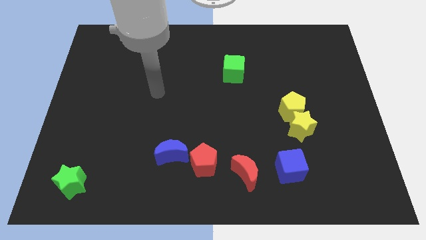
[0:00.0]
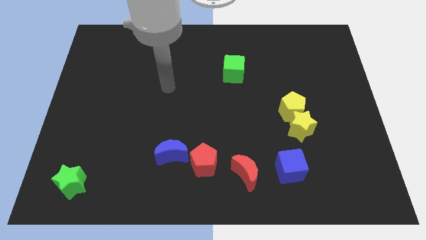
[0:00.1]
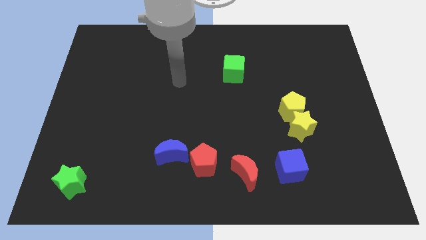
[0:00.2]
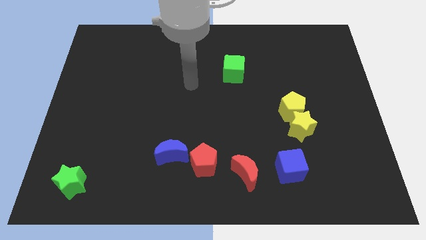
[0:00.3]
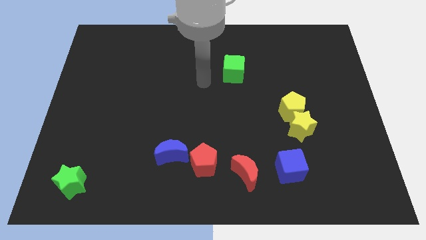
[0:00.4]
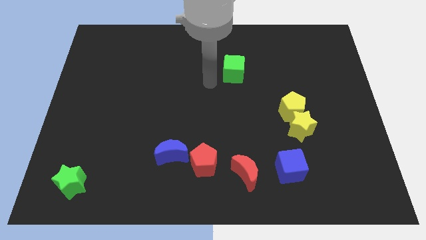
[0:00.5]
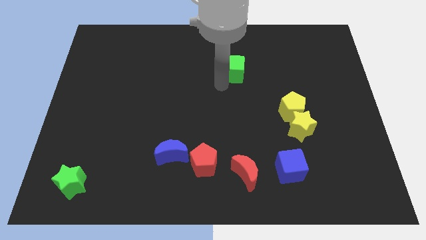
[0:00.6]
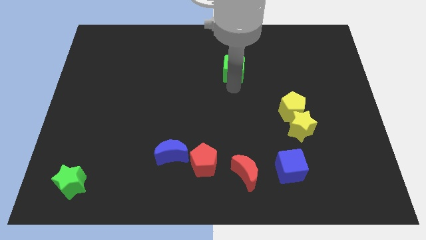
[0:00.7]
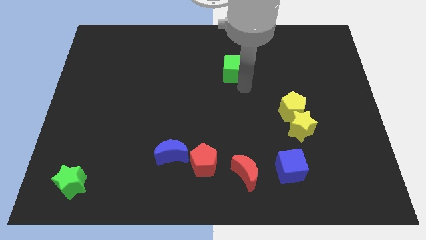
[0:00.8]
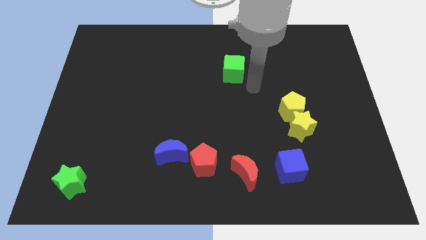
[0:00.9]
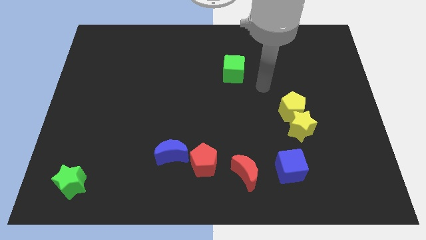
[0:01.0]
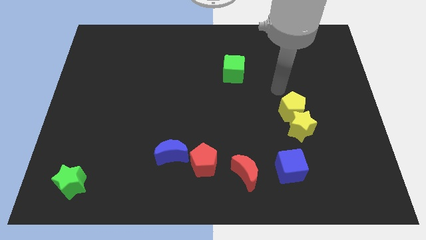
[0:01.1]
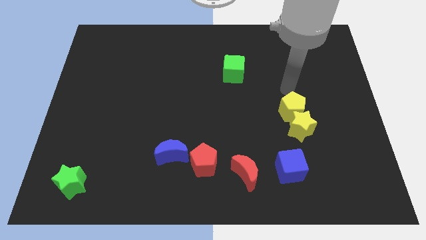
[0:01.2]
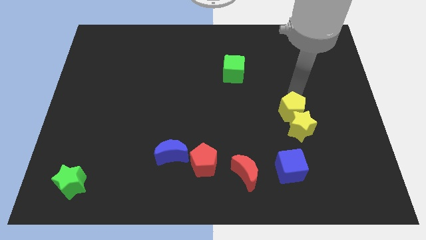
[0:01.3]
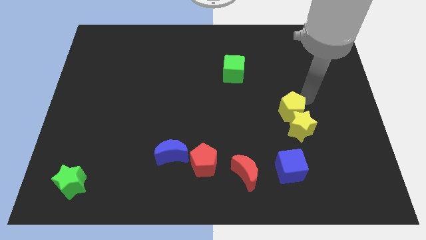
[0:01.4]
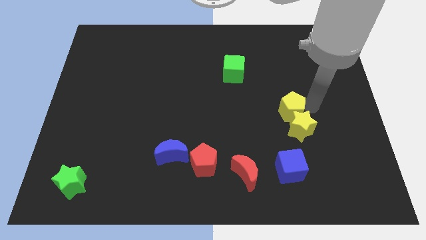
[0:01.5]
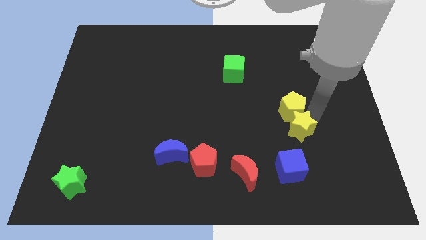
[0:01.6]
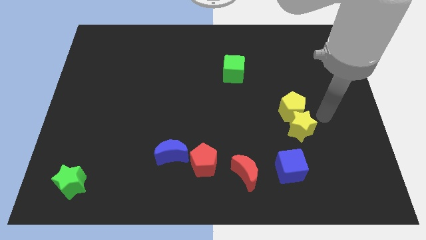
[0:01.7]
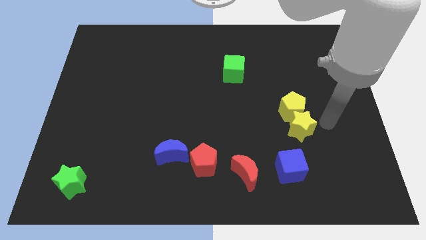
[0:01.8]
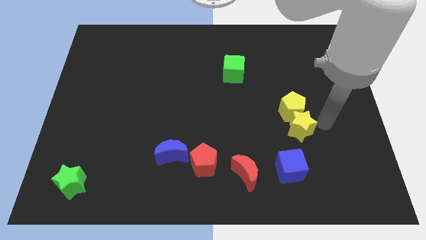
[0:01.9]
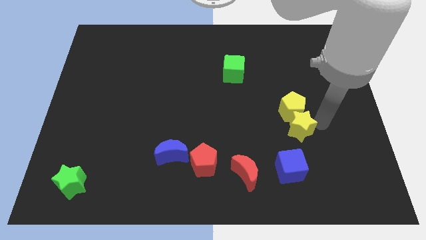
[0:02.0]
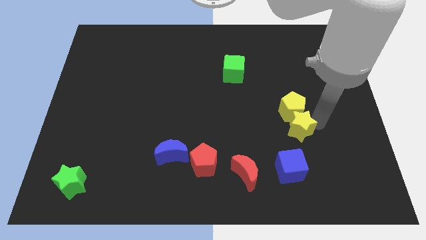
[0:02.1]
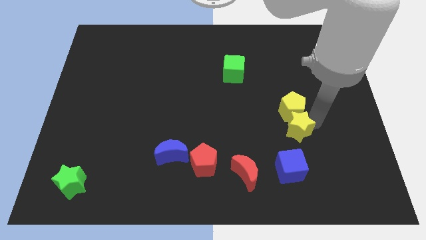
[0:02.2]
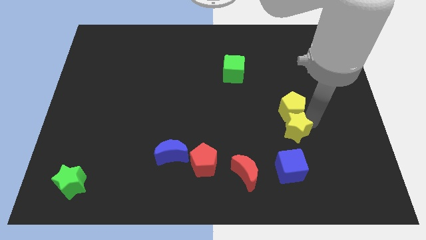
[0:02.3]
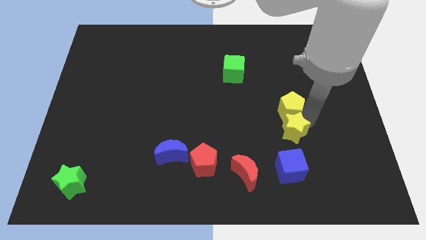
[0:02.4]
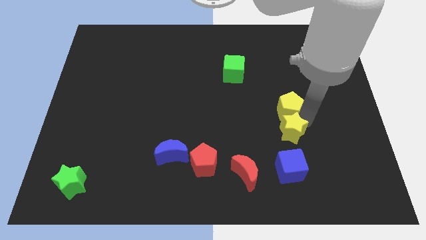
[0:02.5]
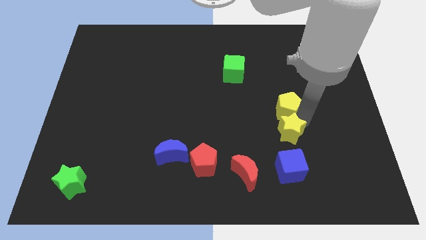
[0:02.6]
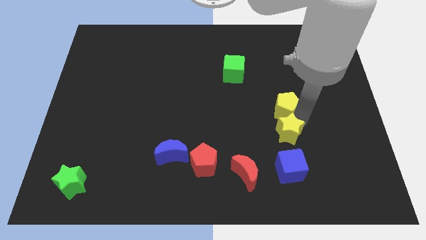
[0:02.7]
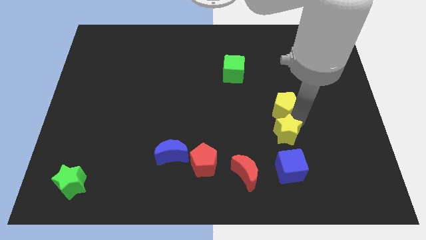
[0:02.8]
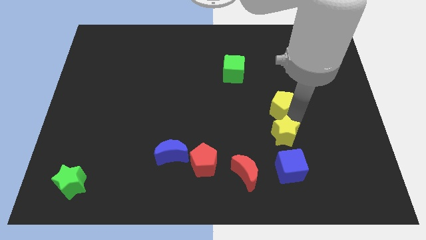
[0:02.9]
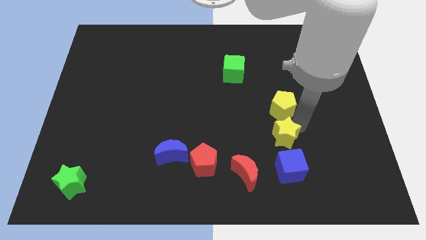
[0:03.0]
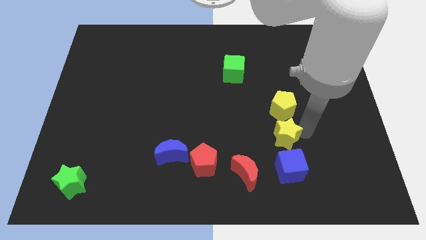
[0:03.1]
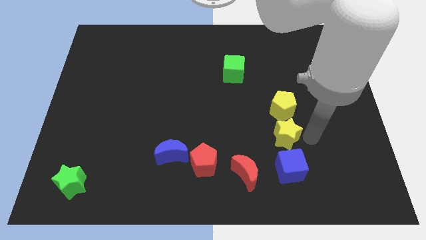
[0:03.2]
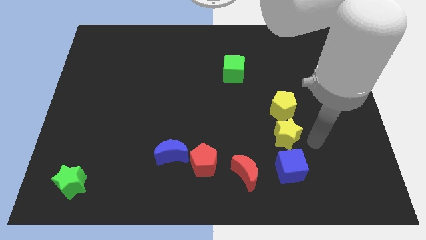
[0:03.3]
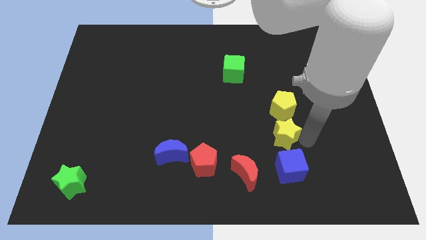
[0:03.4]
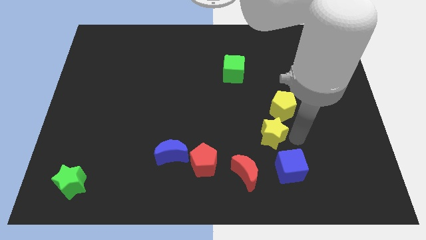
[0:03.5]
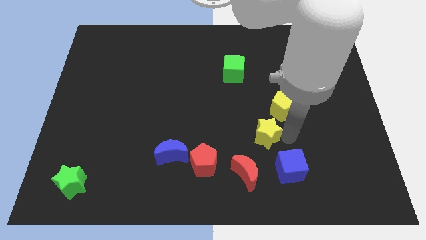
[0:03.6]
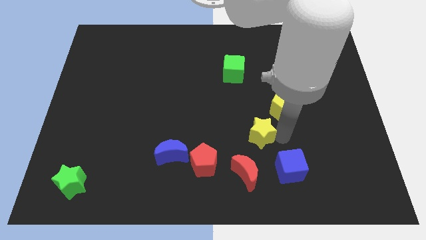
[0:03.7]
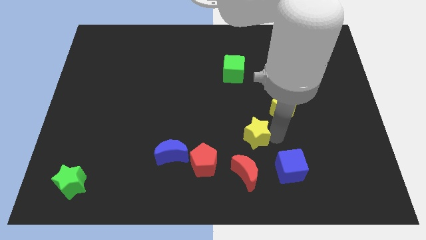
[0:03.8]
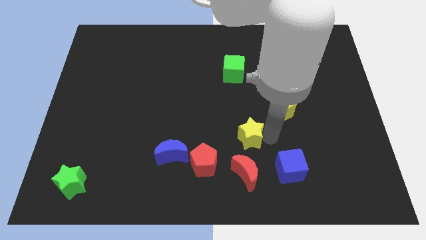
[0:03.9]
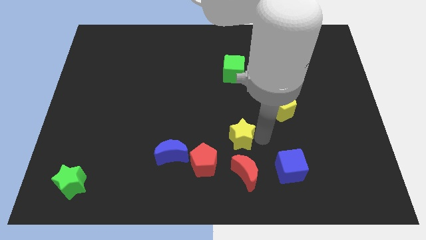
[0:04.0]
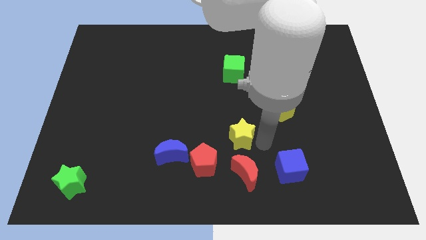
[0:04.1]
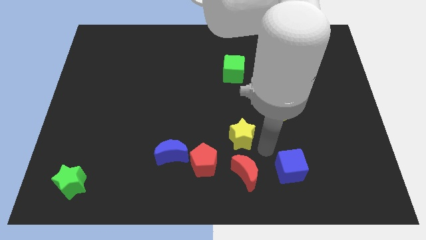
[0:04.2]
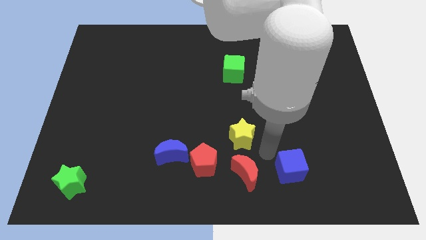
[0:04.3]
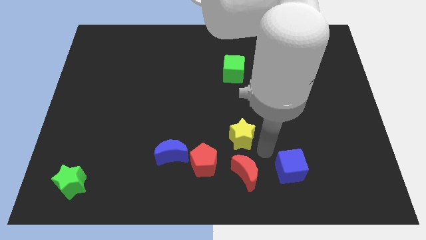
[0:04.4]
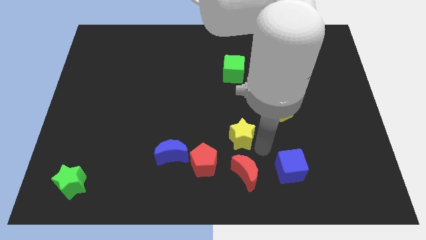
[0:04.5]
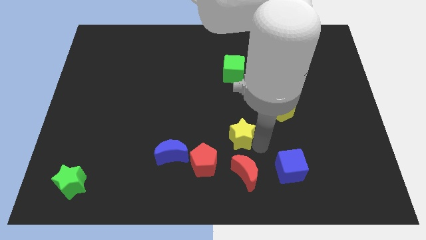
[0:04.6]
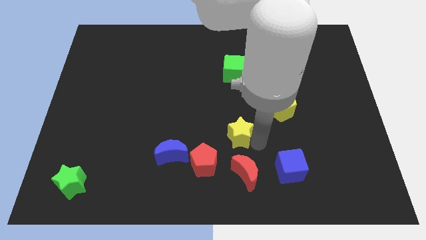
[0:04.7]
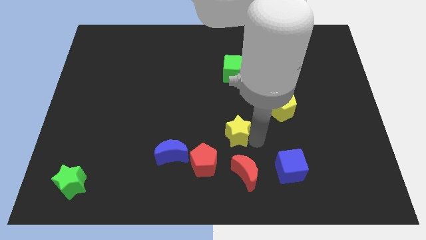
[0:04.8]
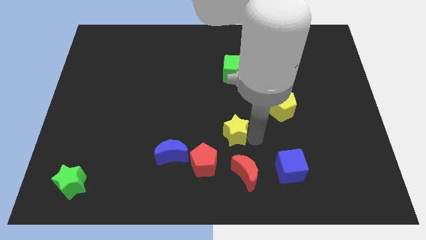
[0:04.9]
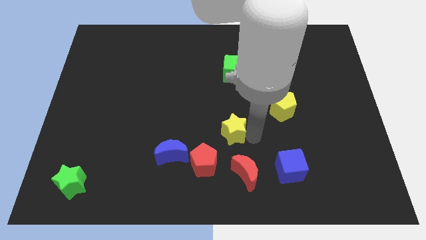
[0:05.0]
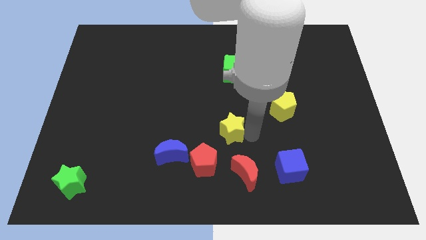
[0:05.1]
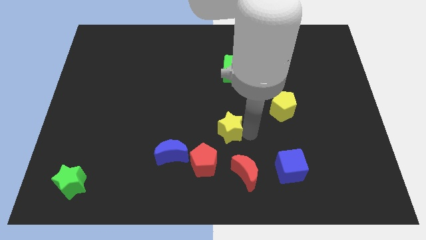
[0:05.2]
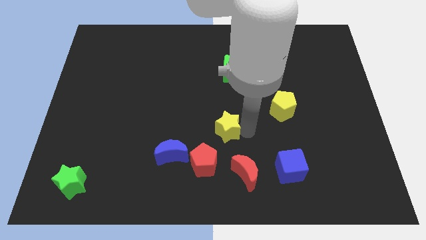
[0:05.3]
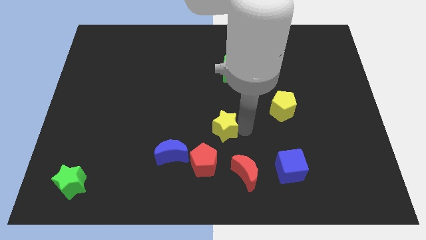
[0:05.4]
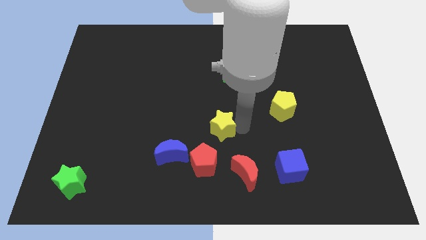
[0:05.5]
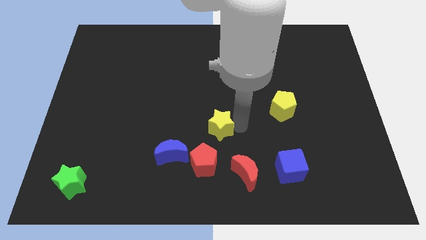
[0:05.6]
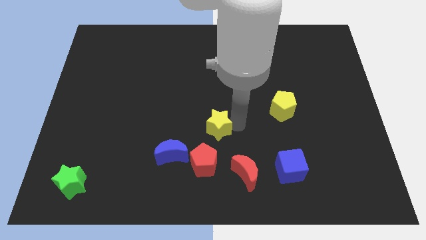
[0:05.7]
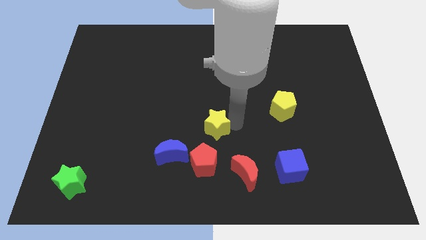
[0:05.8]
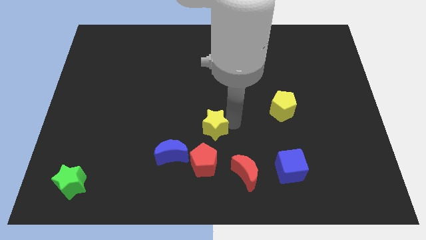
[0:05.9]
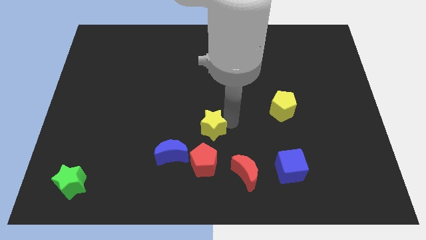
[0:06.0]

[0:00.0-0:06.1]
slide the yellow star to the left

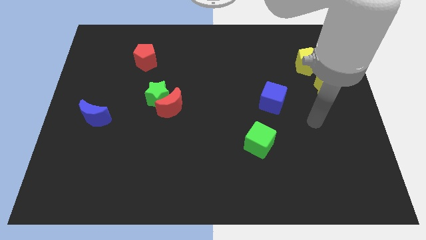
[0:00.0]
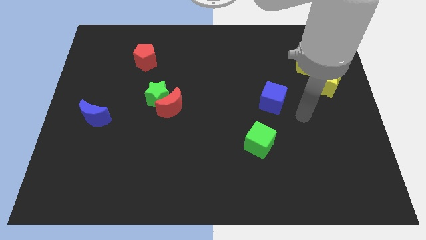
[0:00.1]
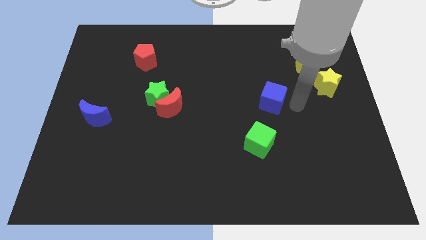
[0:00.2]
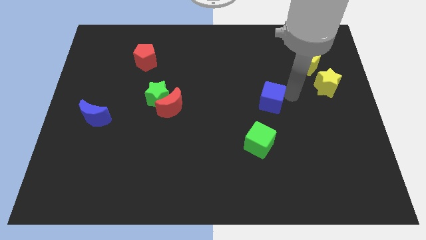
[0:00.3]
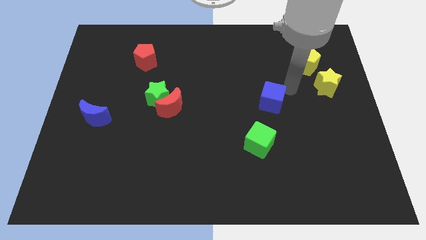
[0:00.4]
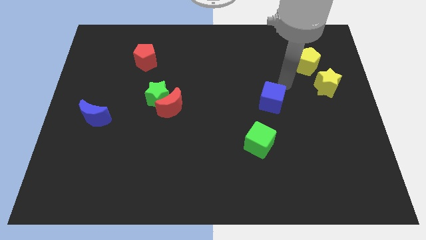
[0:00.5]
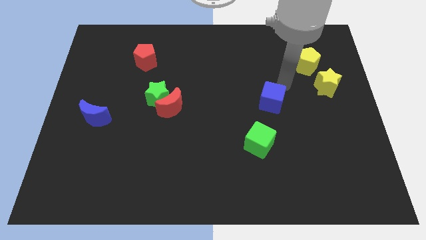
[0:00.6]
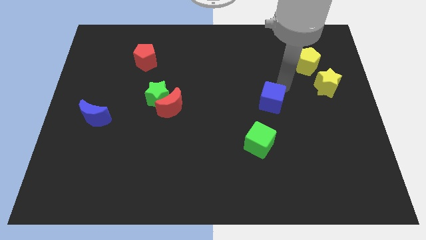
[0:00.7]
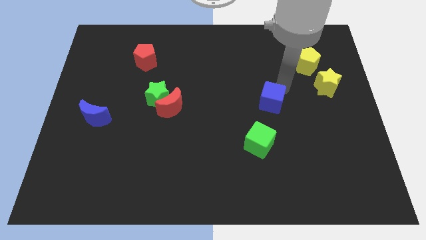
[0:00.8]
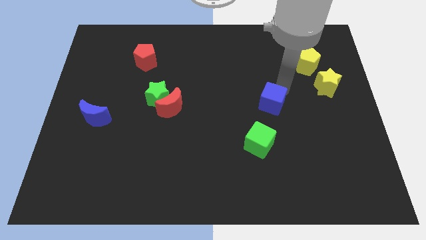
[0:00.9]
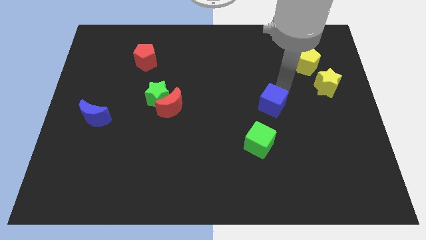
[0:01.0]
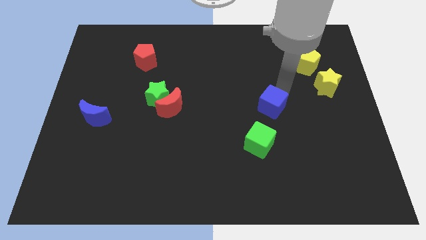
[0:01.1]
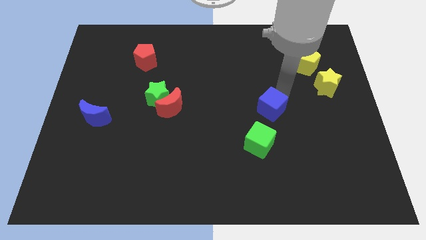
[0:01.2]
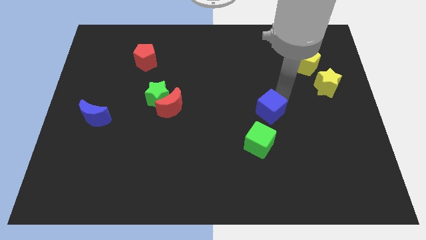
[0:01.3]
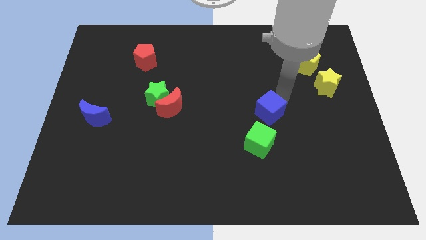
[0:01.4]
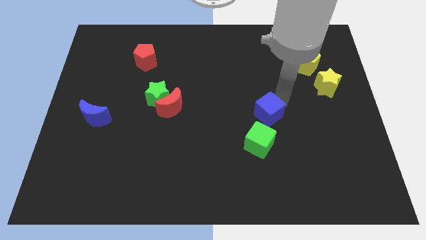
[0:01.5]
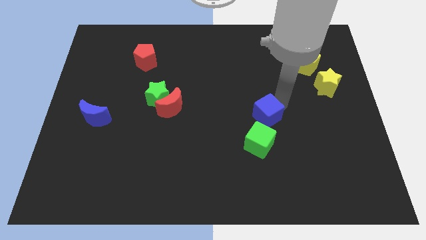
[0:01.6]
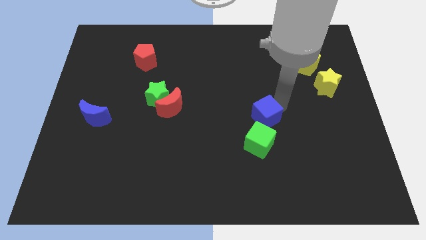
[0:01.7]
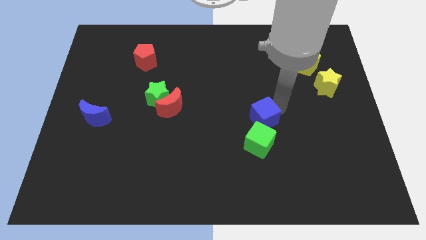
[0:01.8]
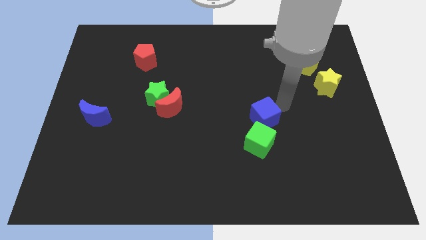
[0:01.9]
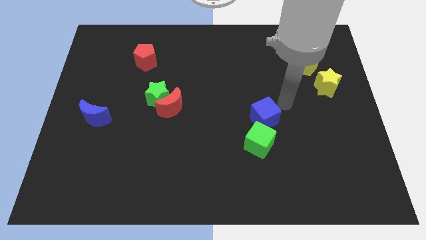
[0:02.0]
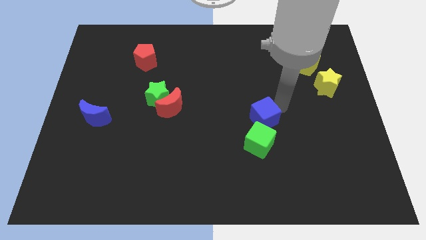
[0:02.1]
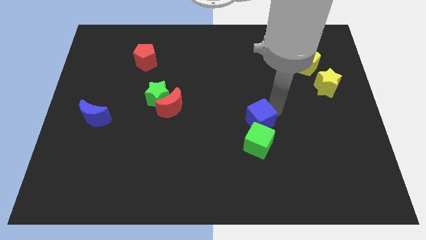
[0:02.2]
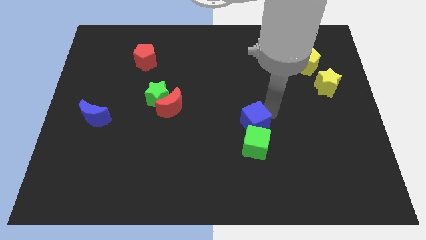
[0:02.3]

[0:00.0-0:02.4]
slightly push the blue cube down and to the left diagonally
